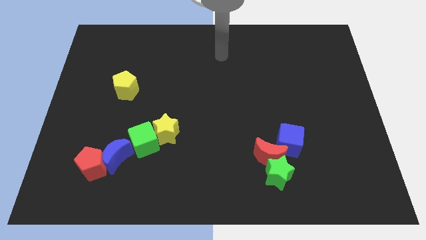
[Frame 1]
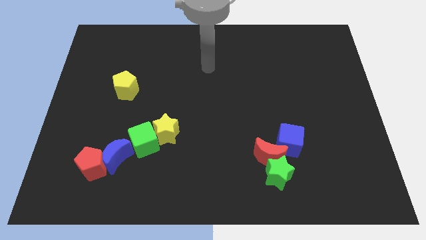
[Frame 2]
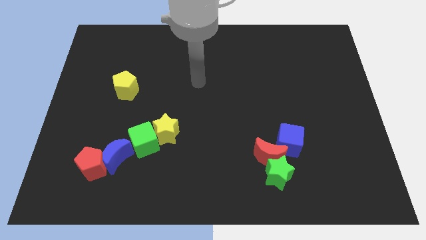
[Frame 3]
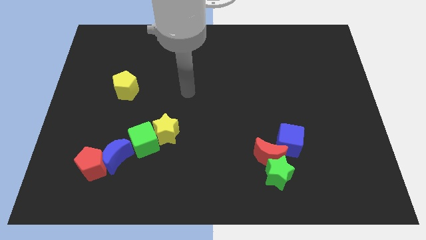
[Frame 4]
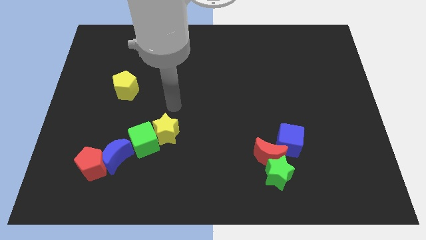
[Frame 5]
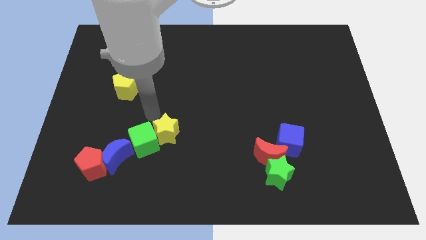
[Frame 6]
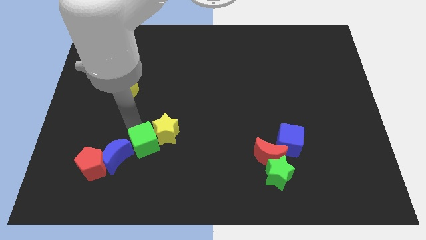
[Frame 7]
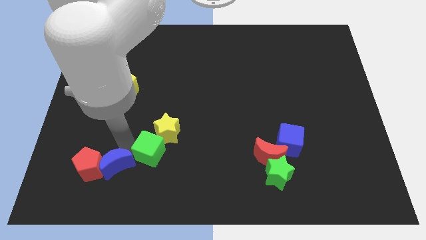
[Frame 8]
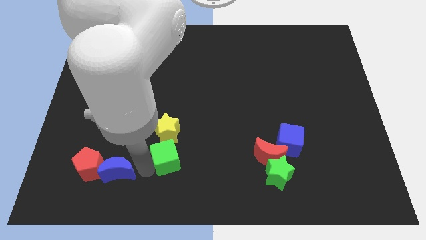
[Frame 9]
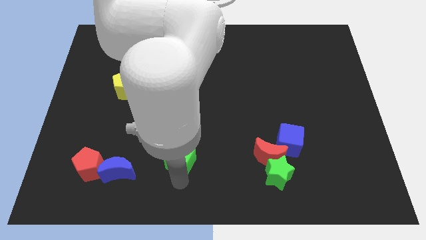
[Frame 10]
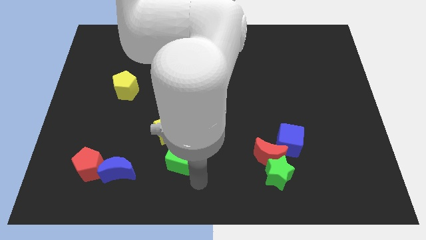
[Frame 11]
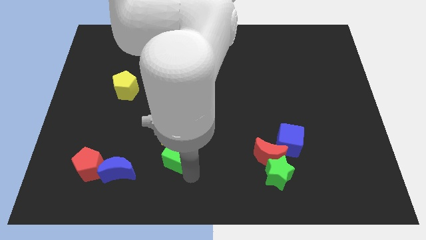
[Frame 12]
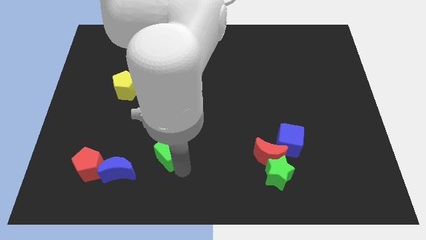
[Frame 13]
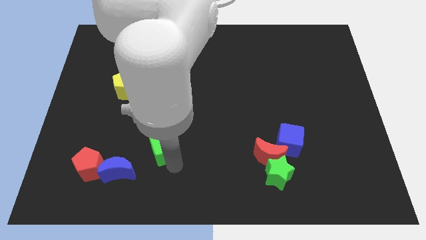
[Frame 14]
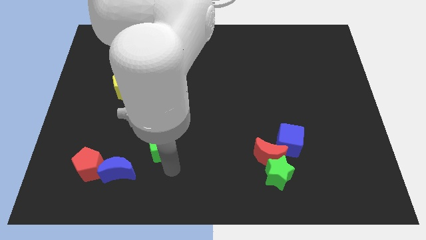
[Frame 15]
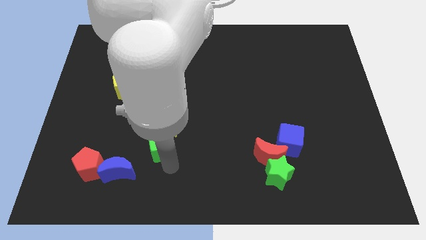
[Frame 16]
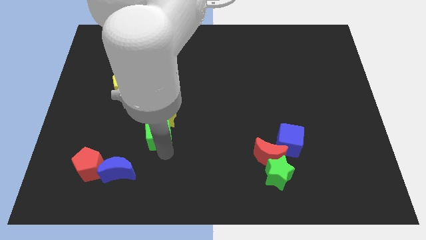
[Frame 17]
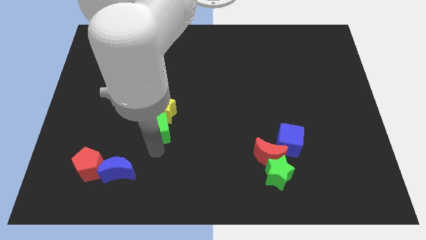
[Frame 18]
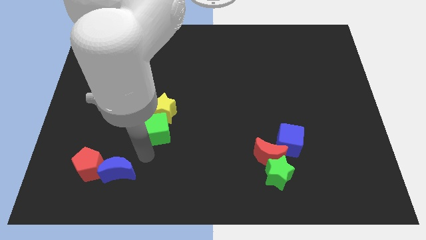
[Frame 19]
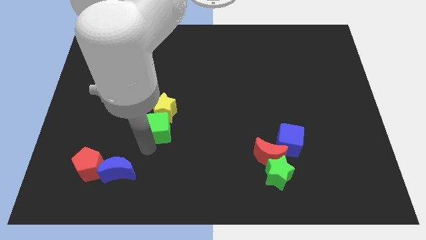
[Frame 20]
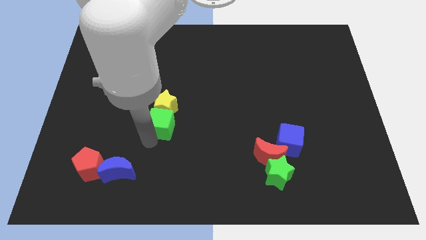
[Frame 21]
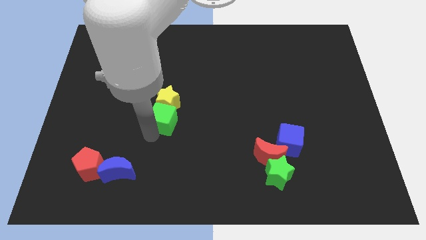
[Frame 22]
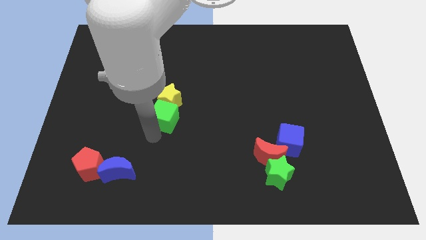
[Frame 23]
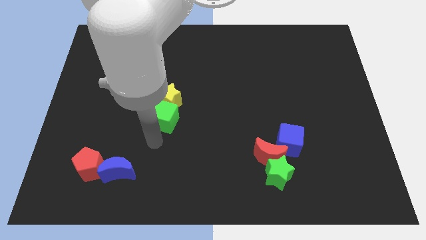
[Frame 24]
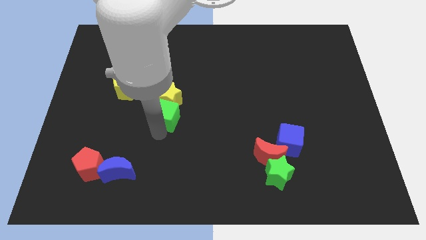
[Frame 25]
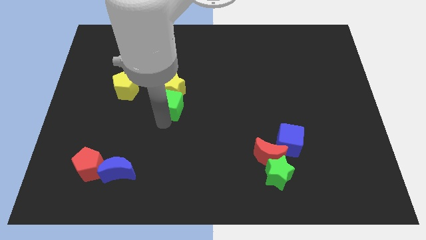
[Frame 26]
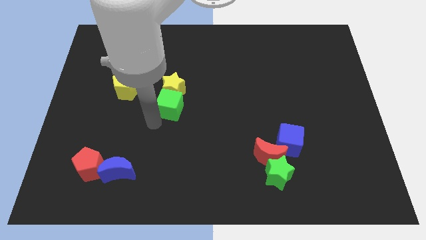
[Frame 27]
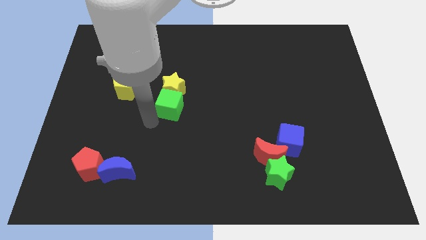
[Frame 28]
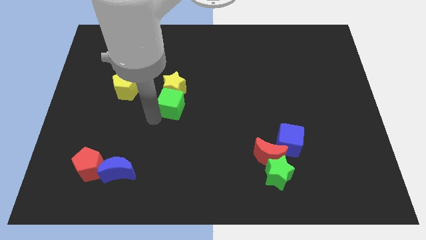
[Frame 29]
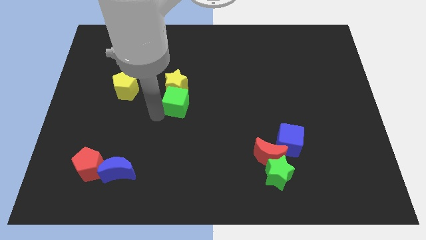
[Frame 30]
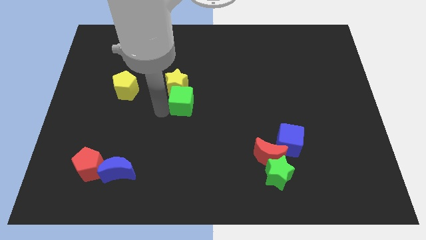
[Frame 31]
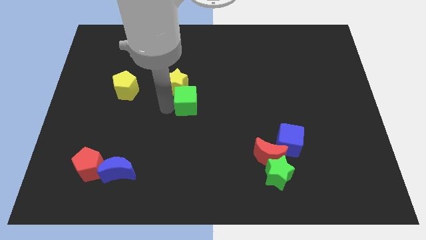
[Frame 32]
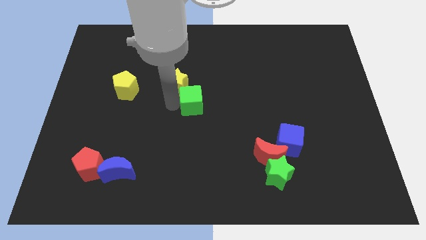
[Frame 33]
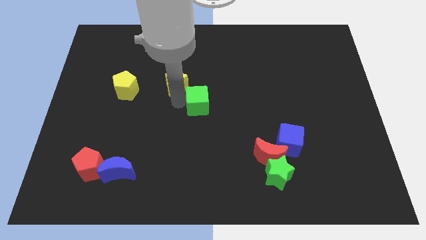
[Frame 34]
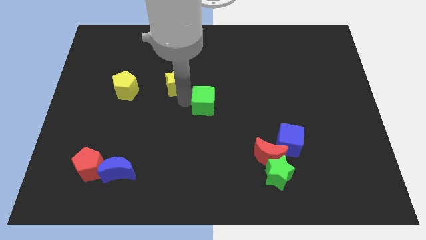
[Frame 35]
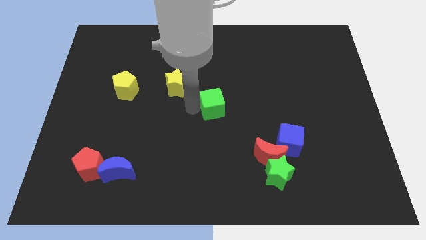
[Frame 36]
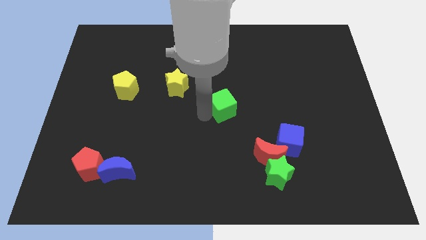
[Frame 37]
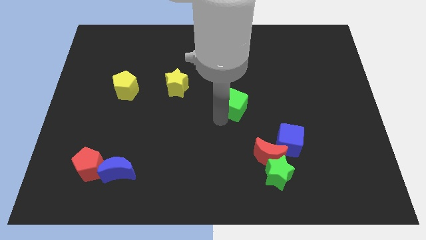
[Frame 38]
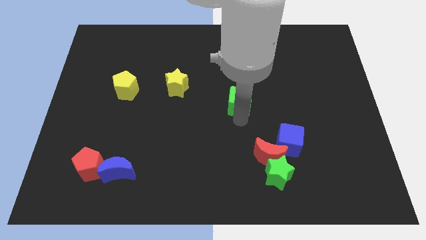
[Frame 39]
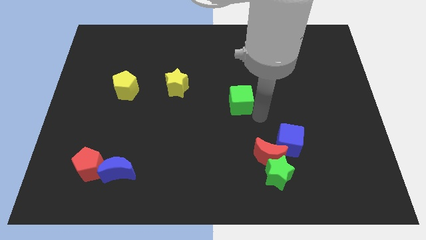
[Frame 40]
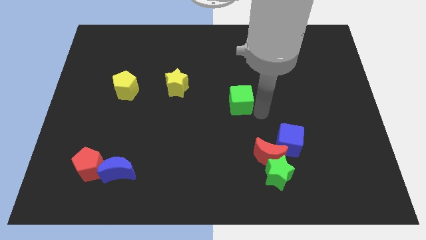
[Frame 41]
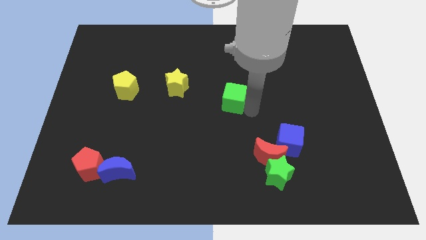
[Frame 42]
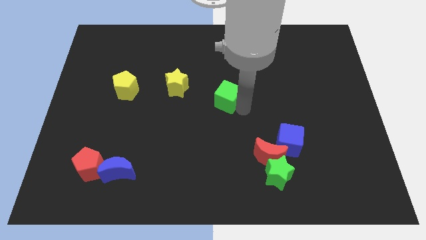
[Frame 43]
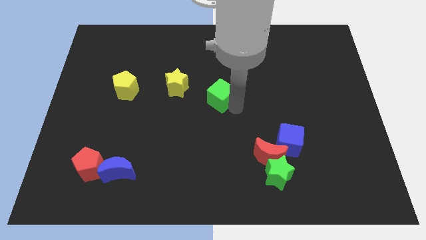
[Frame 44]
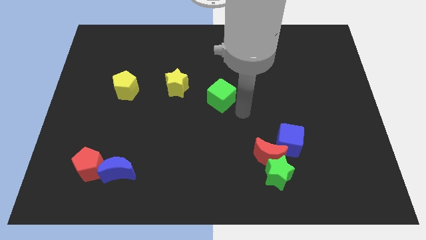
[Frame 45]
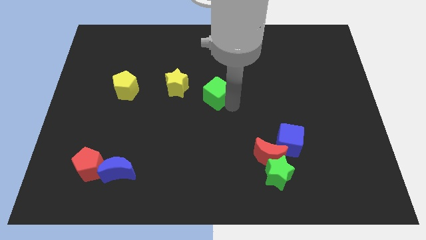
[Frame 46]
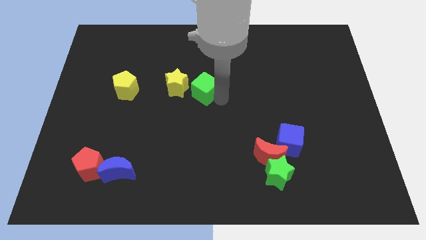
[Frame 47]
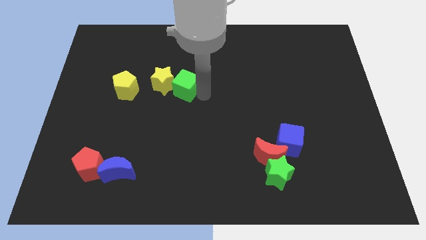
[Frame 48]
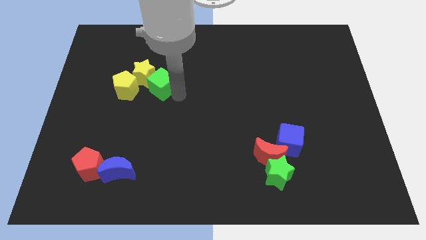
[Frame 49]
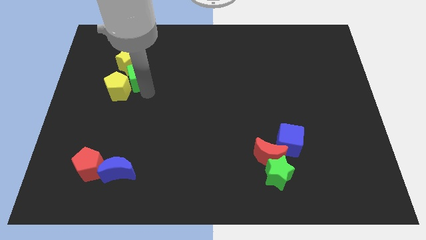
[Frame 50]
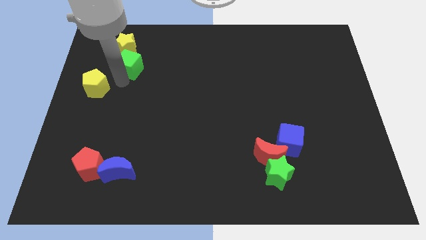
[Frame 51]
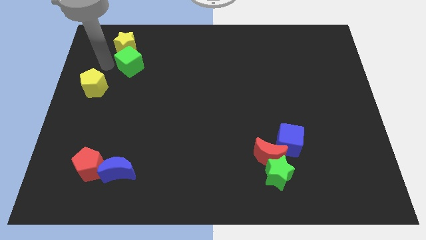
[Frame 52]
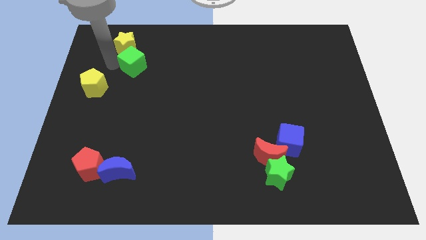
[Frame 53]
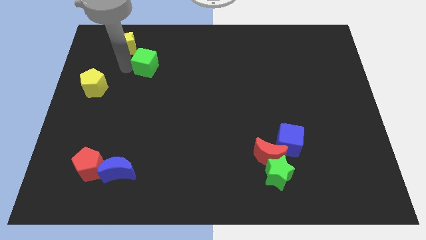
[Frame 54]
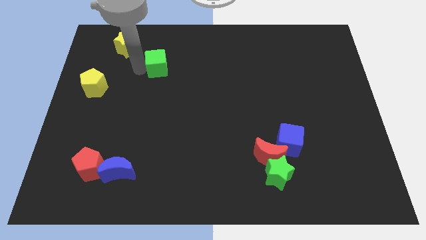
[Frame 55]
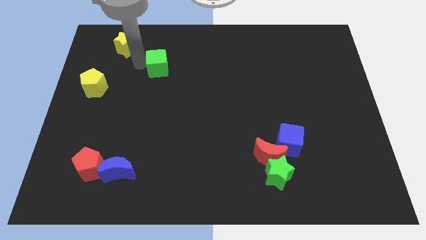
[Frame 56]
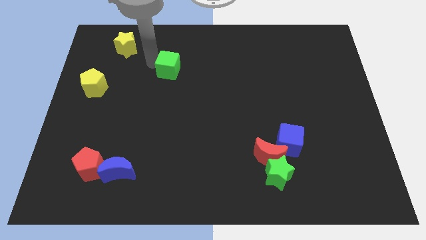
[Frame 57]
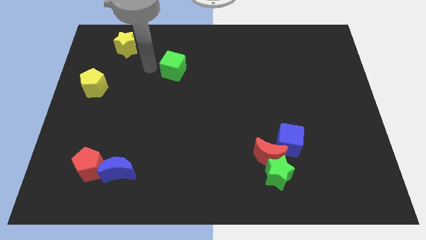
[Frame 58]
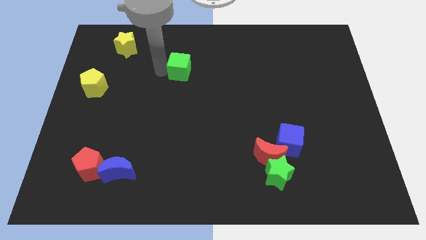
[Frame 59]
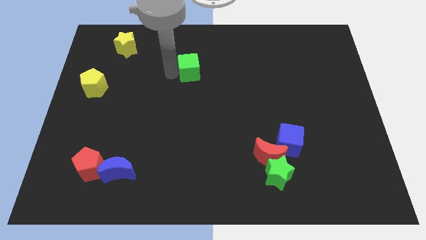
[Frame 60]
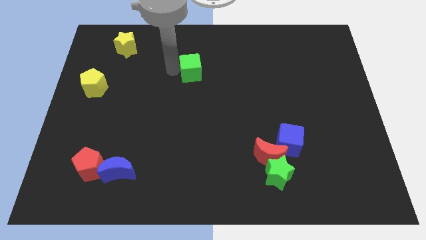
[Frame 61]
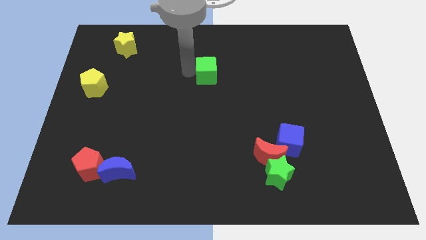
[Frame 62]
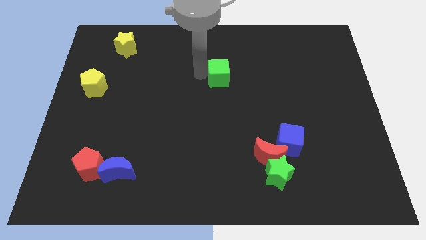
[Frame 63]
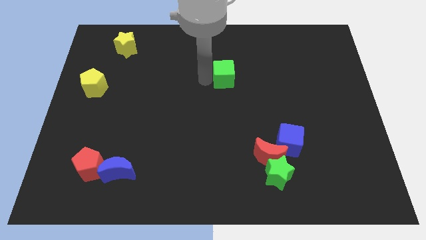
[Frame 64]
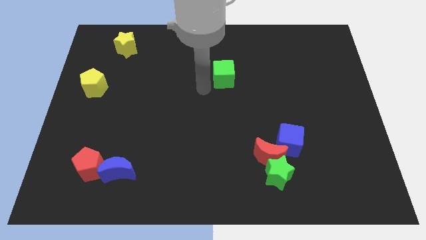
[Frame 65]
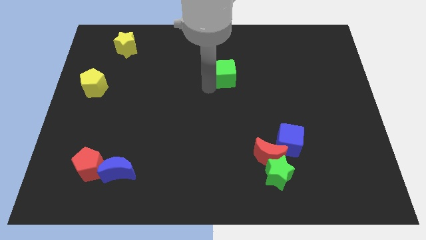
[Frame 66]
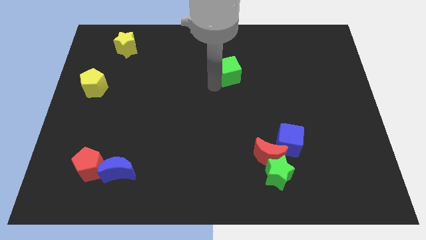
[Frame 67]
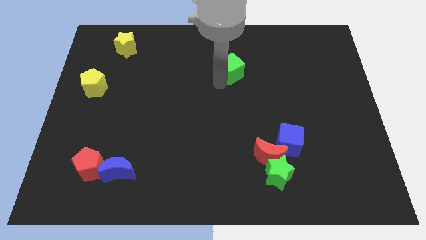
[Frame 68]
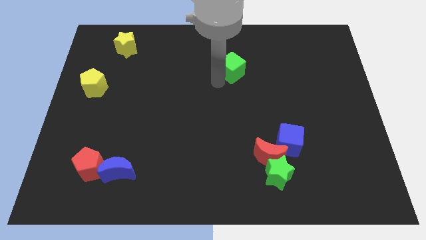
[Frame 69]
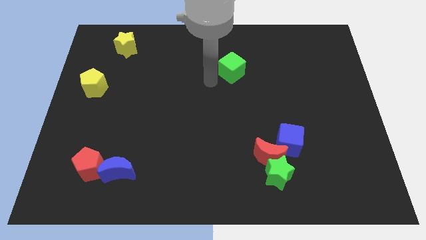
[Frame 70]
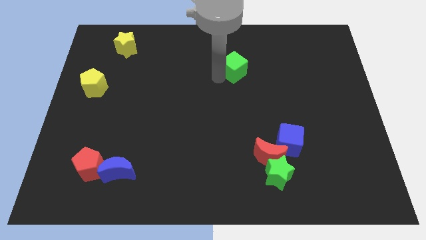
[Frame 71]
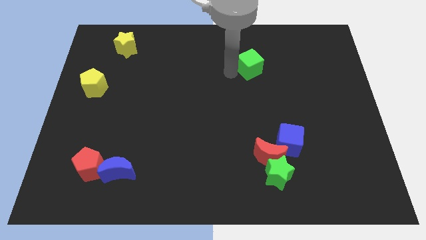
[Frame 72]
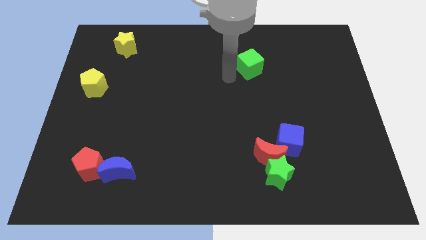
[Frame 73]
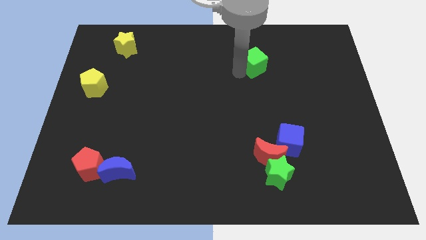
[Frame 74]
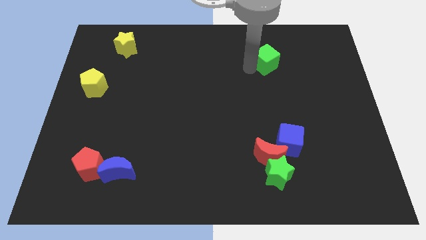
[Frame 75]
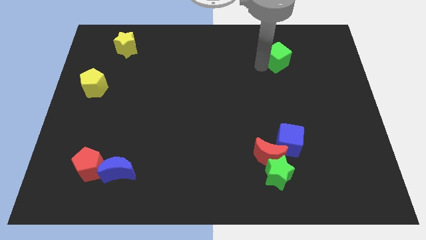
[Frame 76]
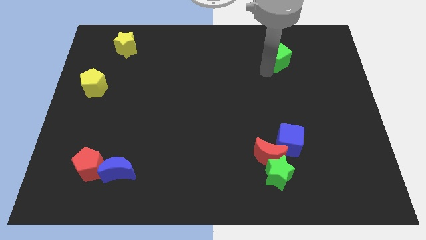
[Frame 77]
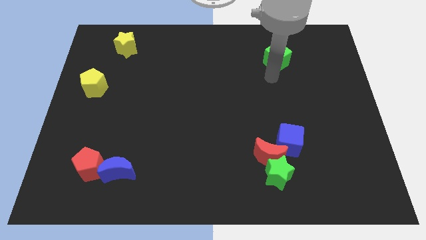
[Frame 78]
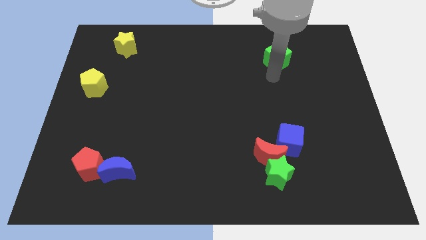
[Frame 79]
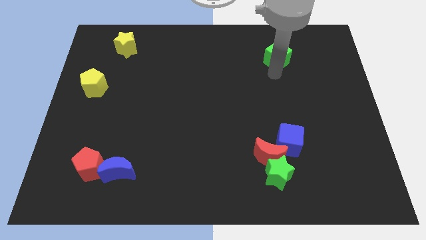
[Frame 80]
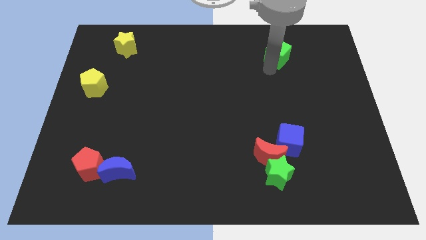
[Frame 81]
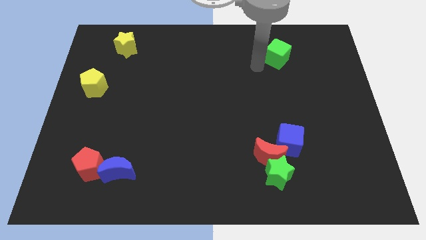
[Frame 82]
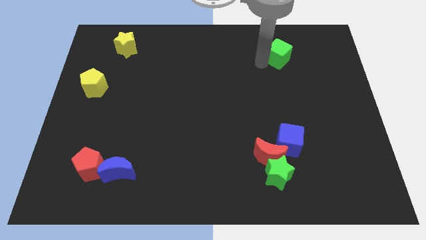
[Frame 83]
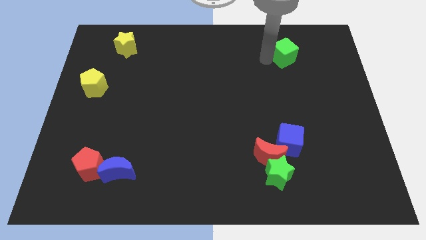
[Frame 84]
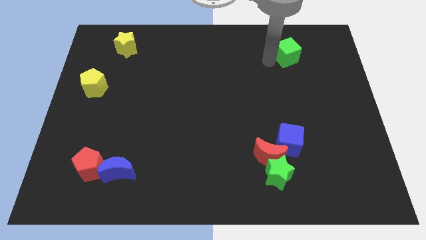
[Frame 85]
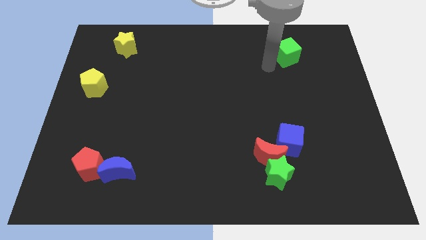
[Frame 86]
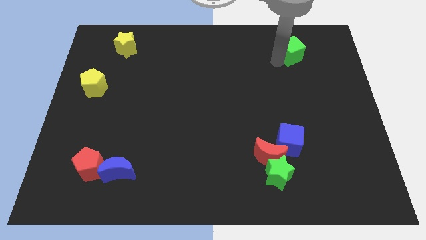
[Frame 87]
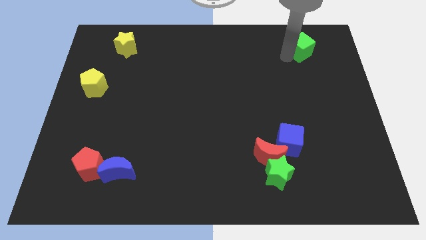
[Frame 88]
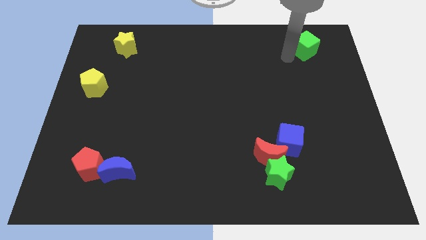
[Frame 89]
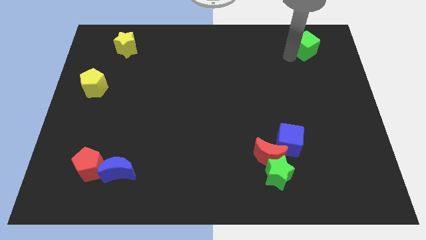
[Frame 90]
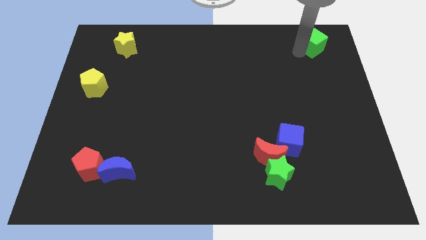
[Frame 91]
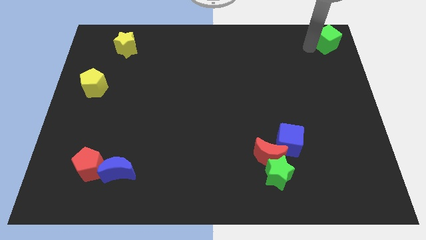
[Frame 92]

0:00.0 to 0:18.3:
move the green cube to the top right
